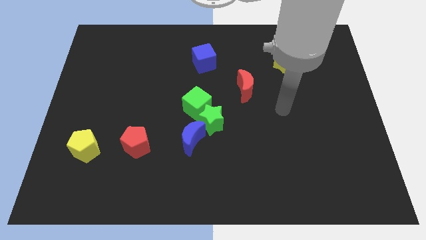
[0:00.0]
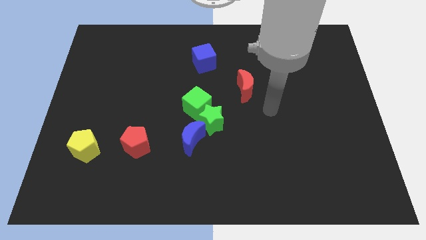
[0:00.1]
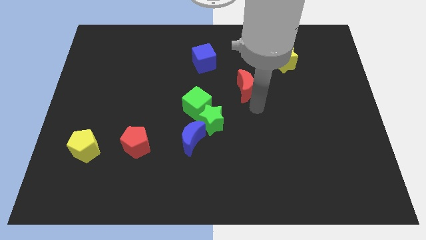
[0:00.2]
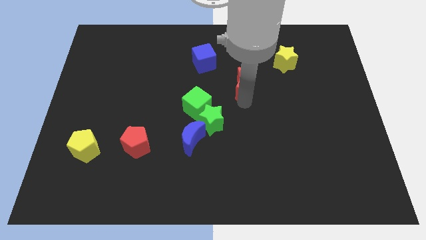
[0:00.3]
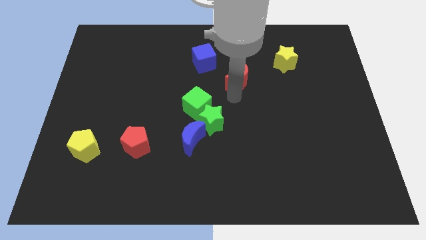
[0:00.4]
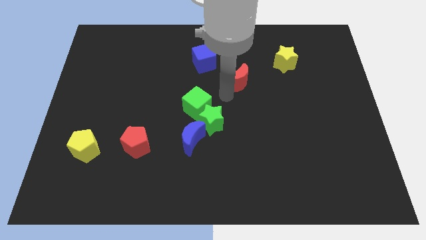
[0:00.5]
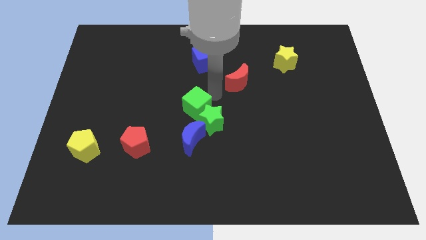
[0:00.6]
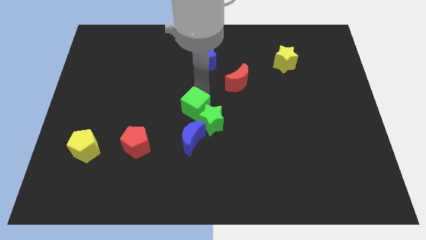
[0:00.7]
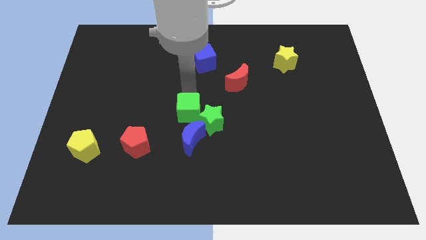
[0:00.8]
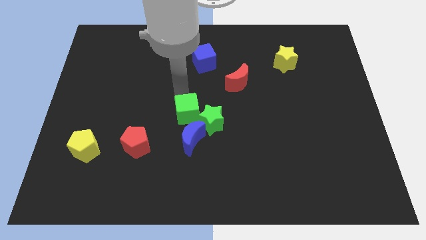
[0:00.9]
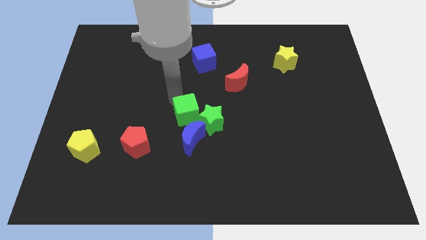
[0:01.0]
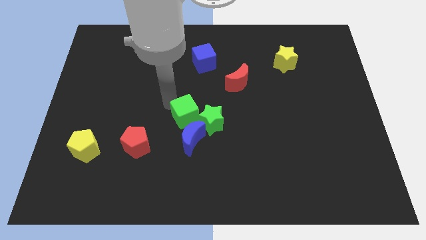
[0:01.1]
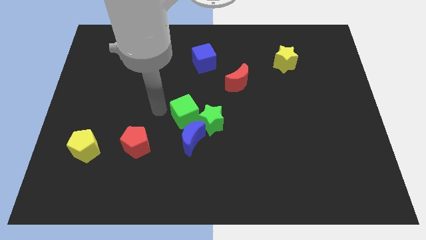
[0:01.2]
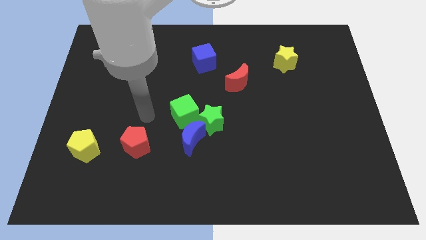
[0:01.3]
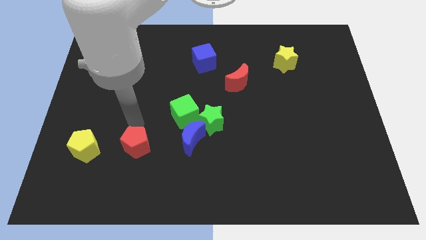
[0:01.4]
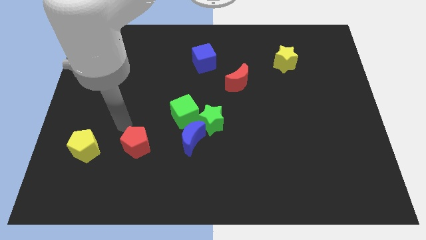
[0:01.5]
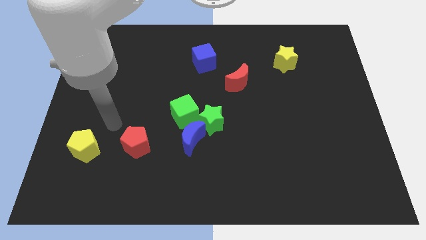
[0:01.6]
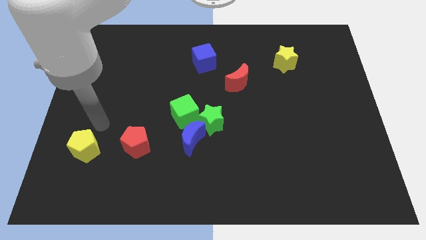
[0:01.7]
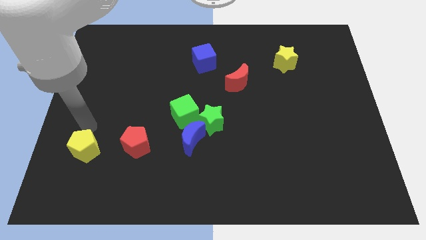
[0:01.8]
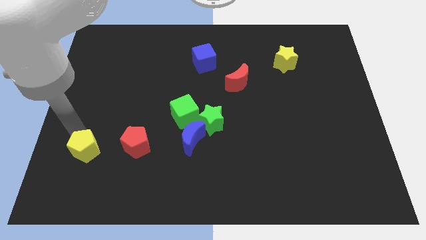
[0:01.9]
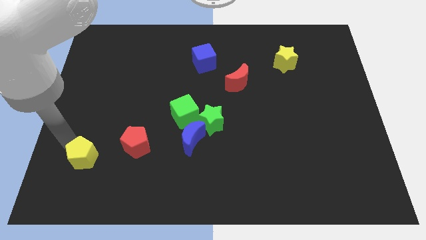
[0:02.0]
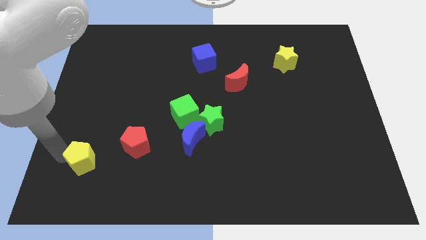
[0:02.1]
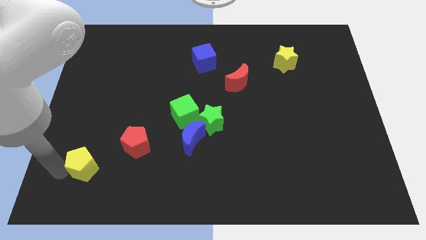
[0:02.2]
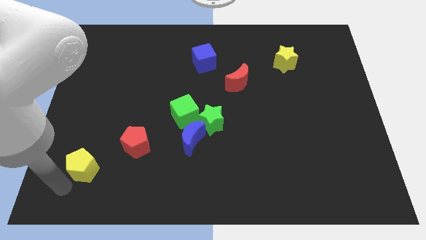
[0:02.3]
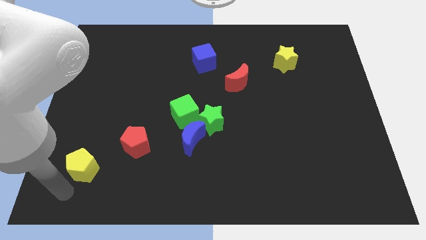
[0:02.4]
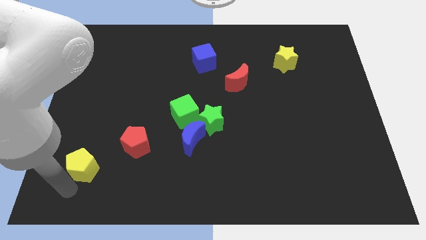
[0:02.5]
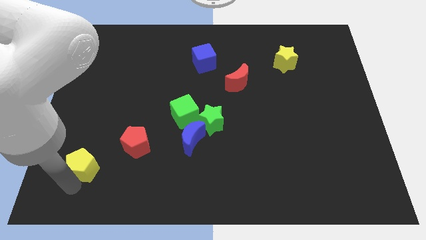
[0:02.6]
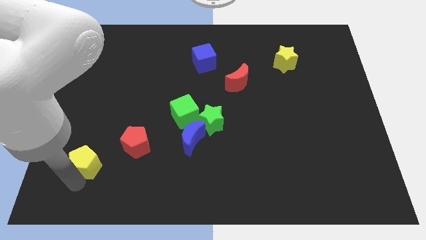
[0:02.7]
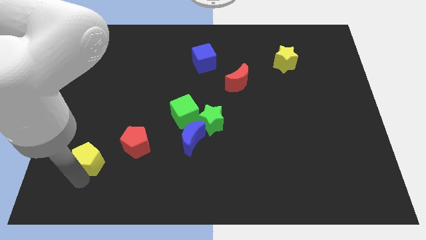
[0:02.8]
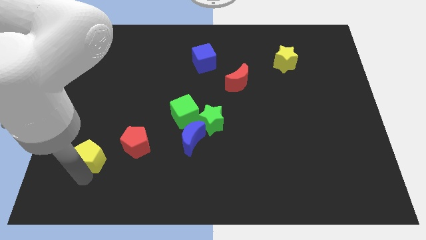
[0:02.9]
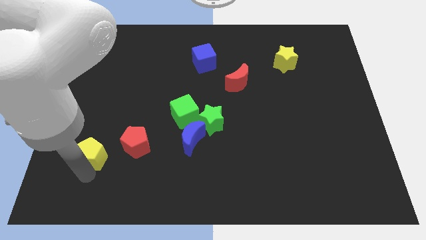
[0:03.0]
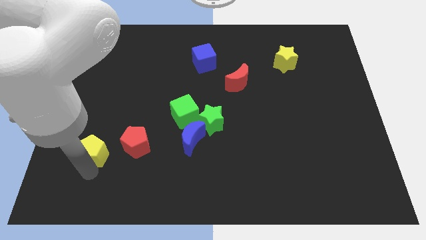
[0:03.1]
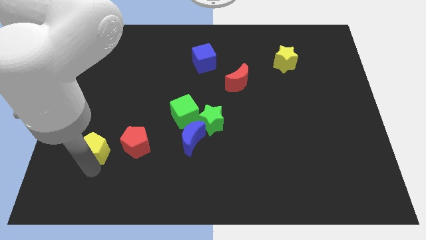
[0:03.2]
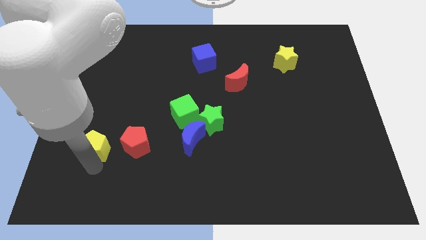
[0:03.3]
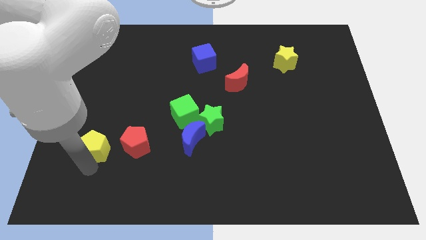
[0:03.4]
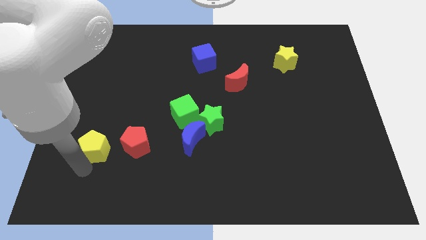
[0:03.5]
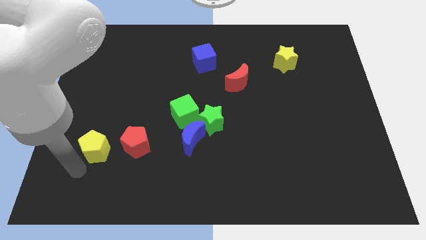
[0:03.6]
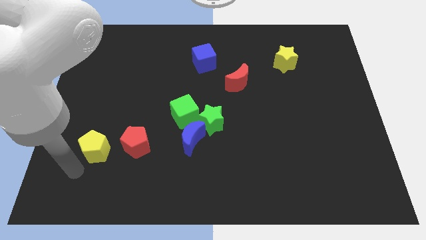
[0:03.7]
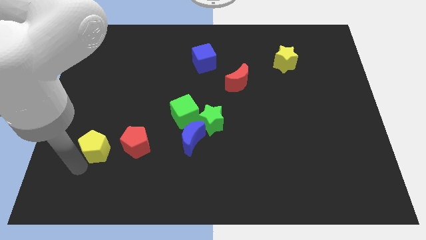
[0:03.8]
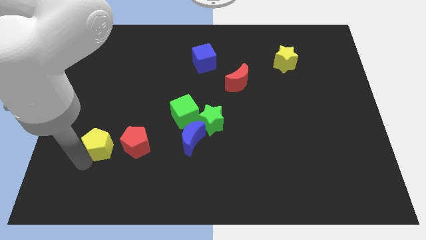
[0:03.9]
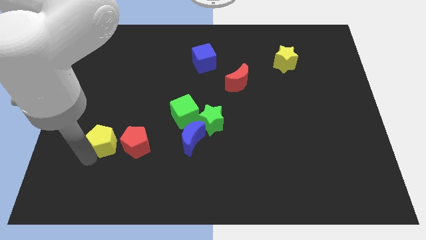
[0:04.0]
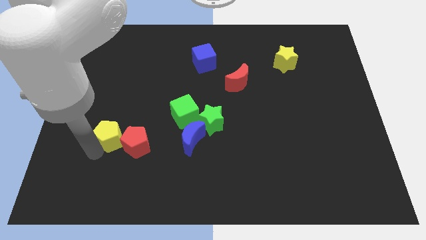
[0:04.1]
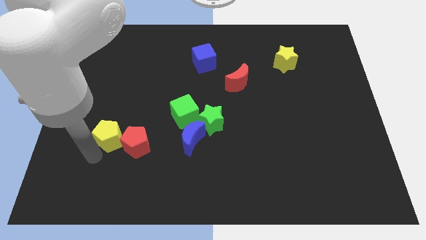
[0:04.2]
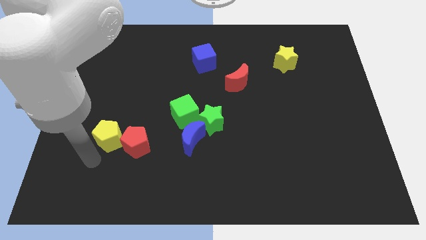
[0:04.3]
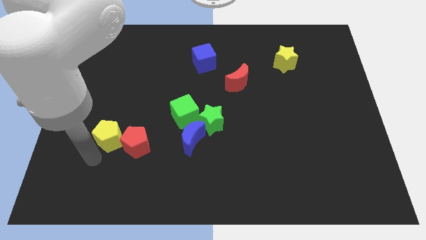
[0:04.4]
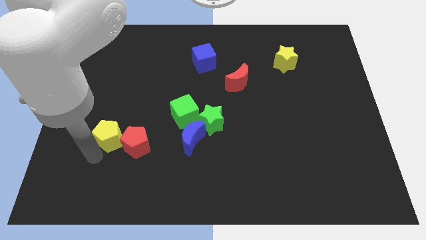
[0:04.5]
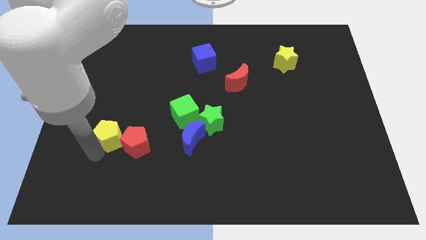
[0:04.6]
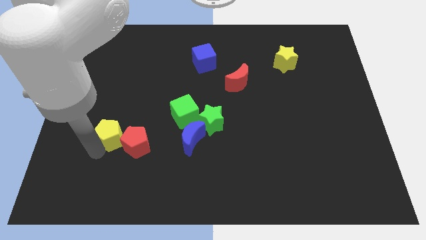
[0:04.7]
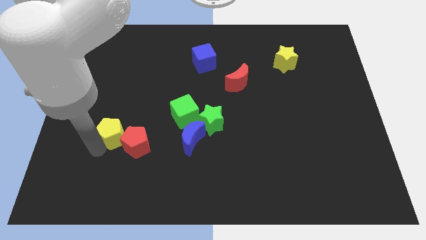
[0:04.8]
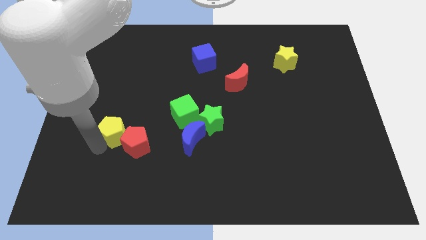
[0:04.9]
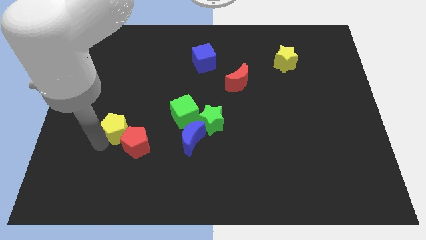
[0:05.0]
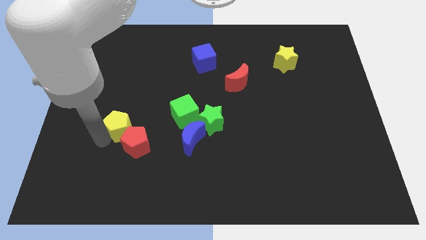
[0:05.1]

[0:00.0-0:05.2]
move the yellow pentagon above the red pentagon

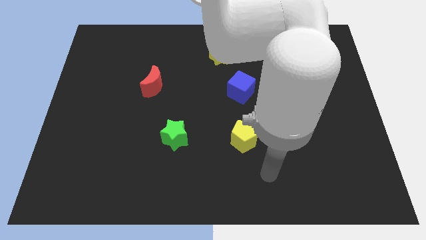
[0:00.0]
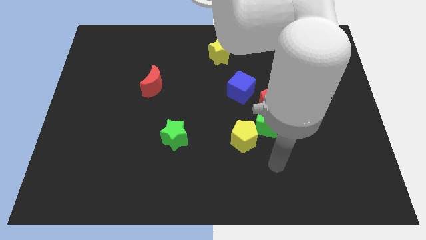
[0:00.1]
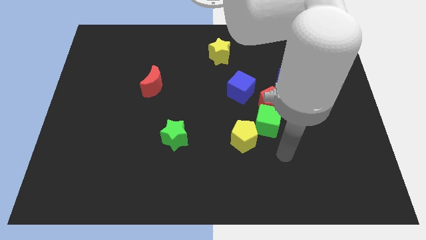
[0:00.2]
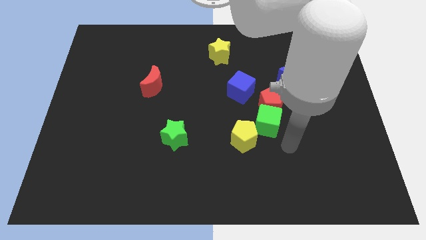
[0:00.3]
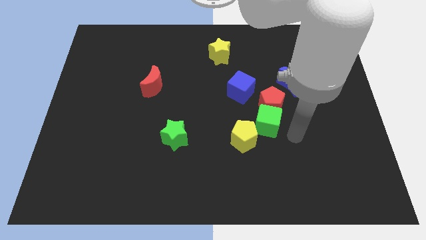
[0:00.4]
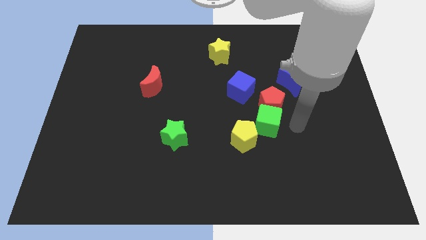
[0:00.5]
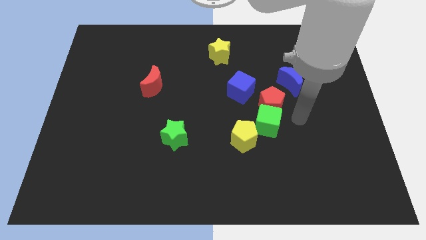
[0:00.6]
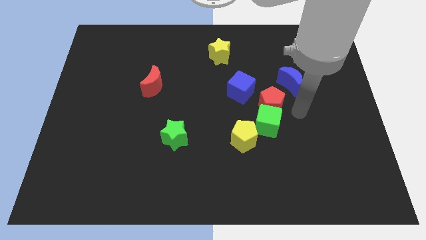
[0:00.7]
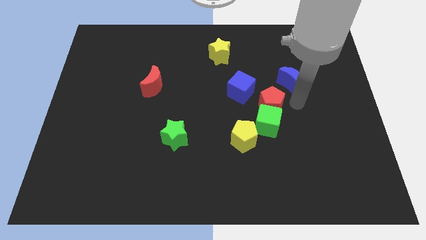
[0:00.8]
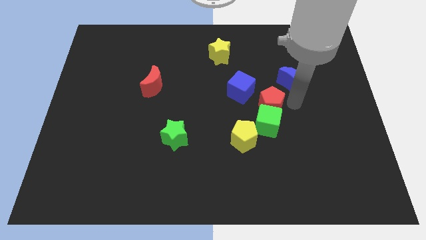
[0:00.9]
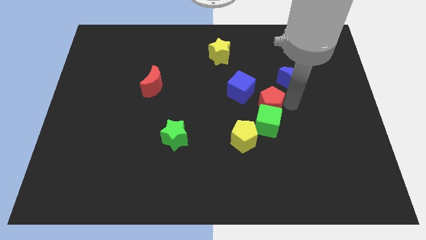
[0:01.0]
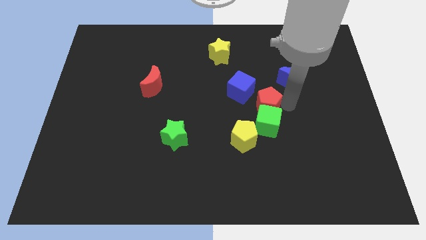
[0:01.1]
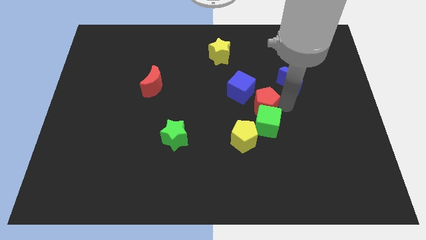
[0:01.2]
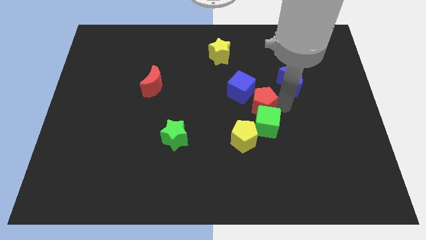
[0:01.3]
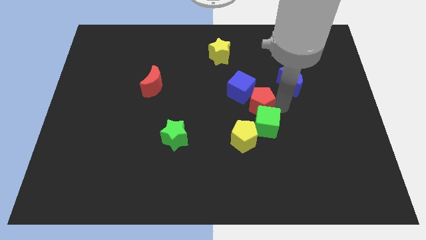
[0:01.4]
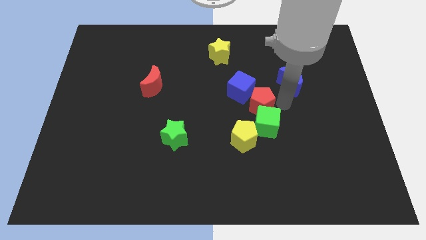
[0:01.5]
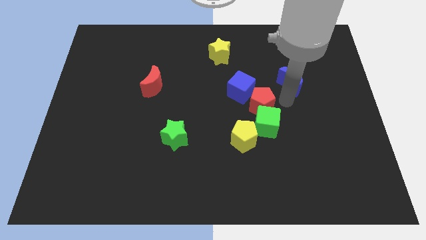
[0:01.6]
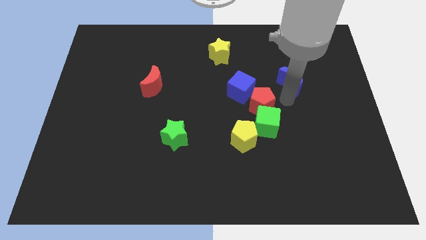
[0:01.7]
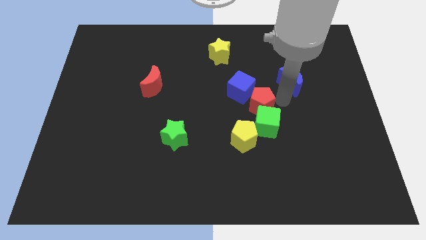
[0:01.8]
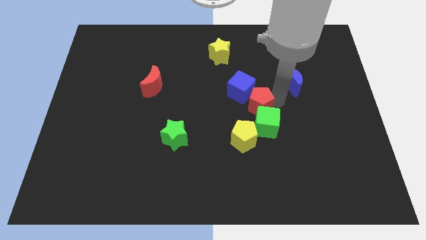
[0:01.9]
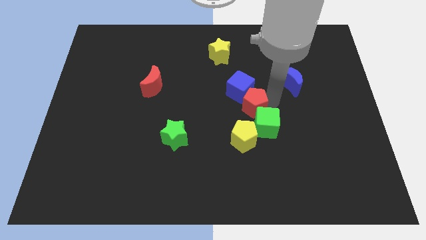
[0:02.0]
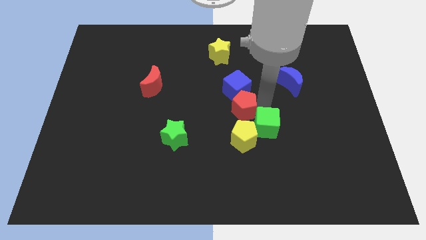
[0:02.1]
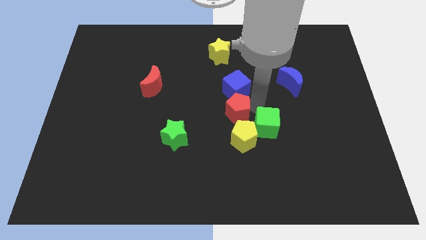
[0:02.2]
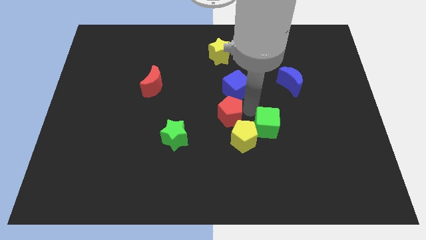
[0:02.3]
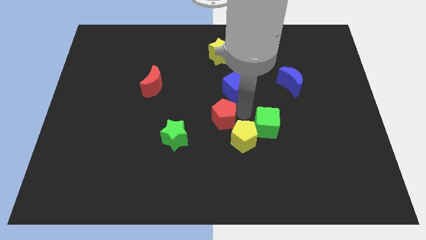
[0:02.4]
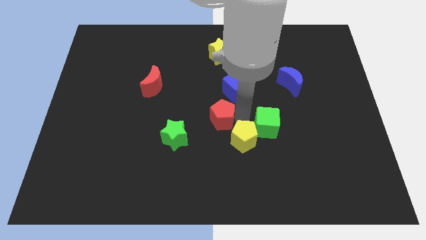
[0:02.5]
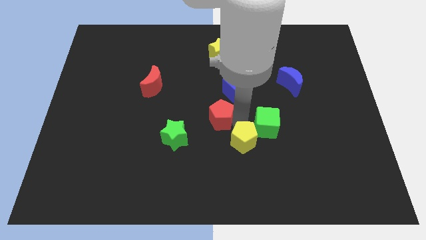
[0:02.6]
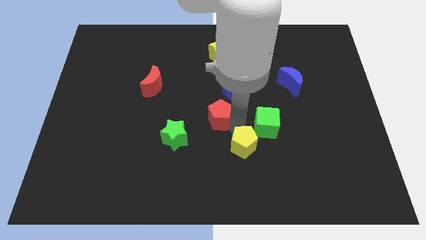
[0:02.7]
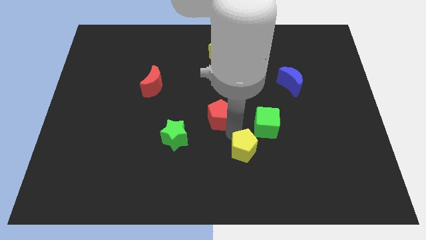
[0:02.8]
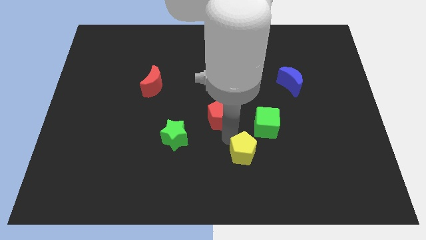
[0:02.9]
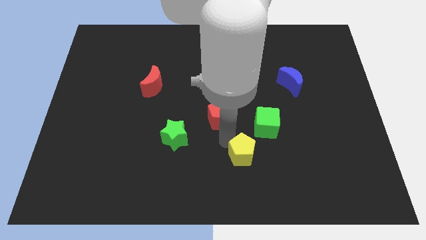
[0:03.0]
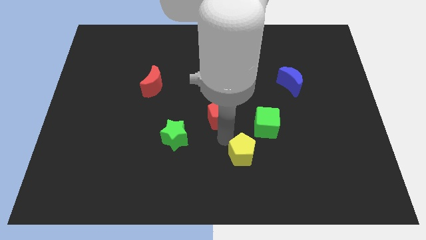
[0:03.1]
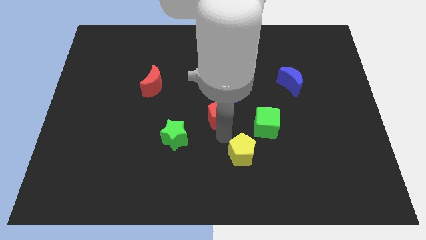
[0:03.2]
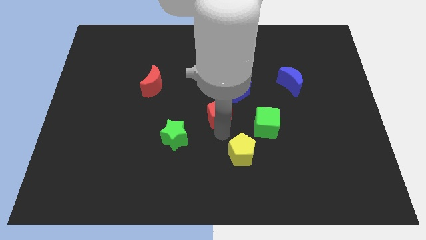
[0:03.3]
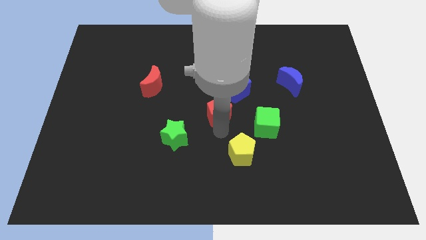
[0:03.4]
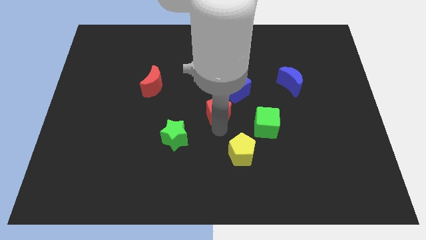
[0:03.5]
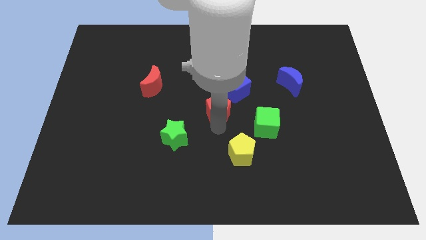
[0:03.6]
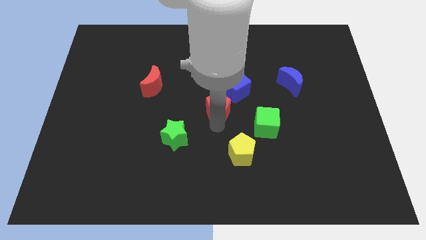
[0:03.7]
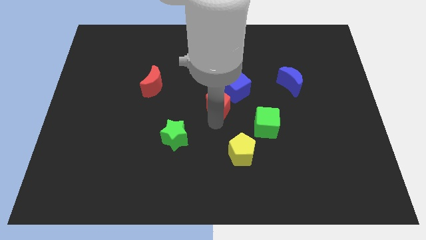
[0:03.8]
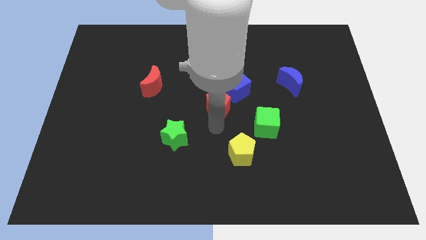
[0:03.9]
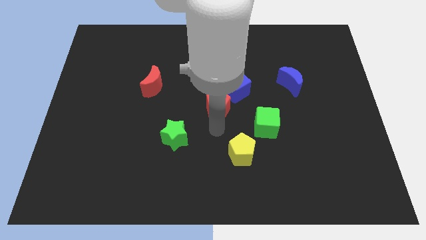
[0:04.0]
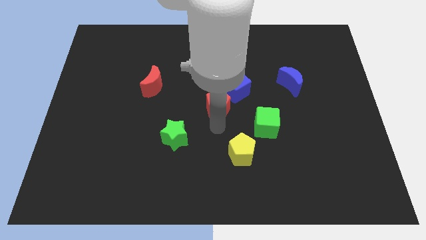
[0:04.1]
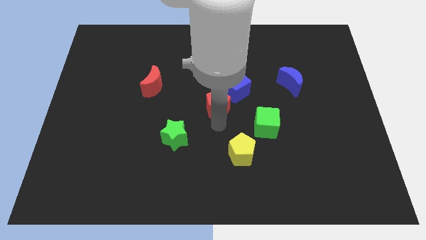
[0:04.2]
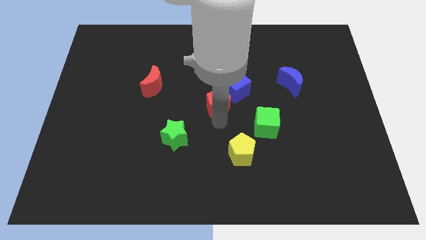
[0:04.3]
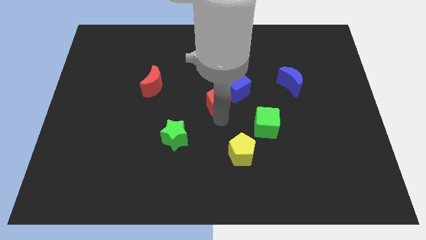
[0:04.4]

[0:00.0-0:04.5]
slide the red pentagon to the bottom side of the yellow star
